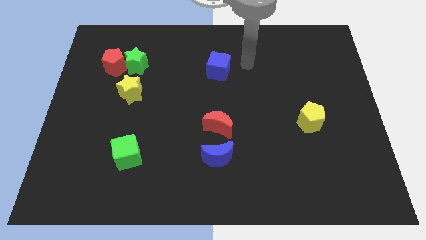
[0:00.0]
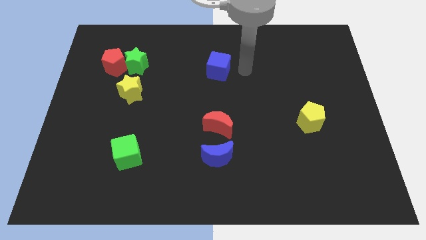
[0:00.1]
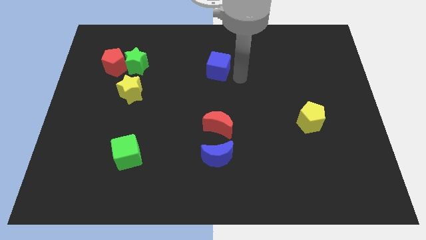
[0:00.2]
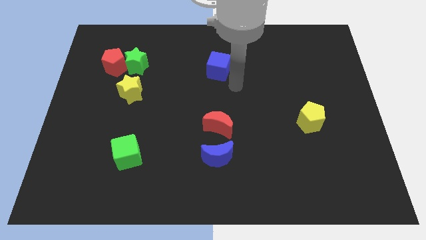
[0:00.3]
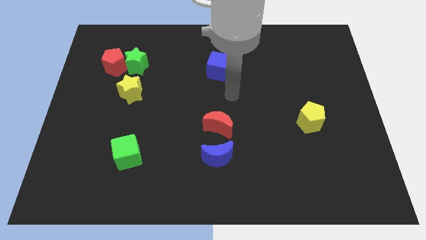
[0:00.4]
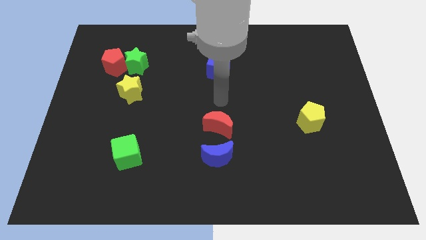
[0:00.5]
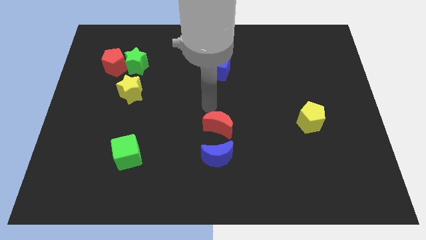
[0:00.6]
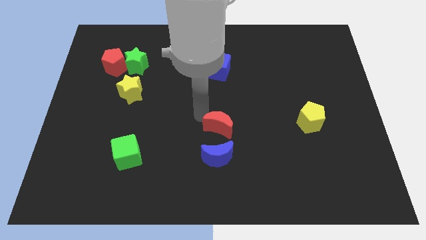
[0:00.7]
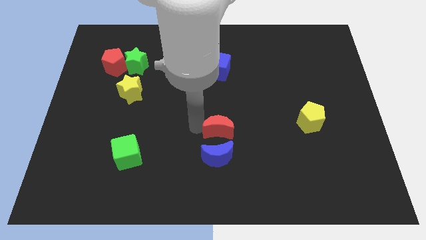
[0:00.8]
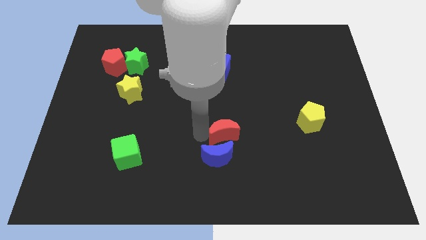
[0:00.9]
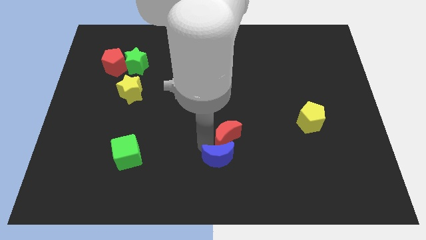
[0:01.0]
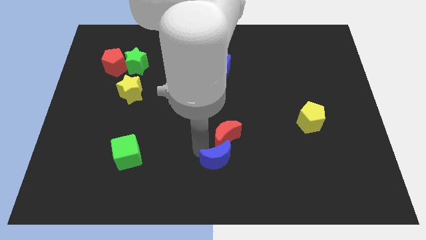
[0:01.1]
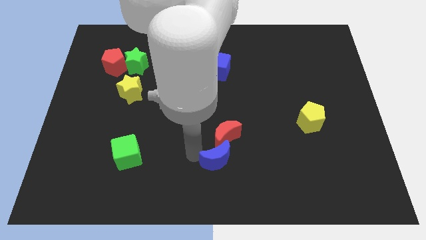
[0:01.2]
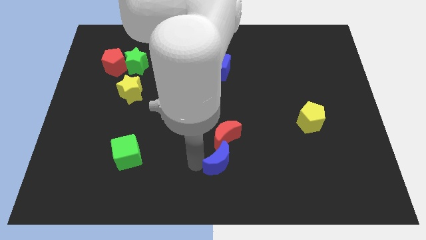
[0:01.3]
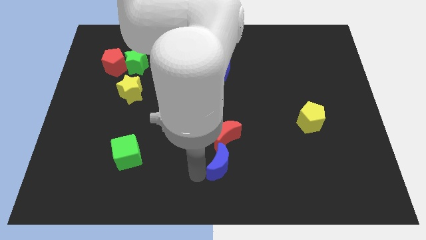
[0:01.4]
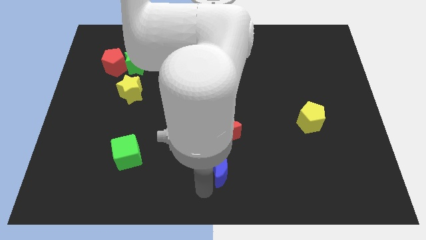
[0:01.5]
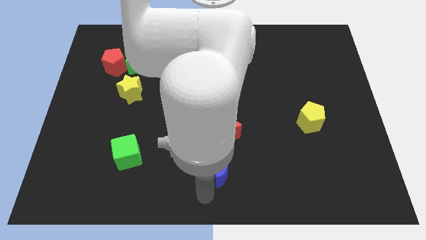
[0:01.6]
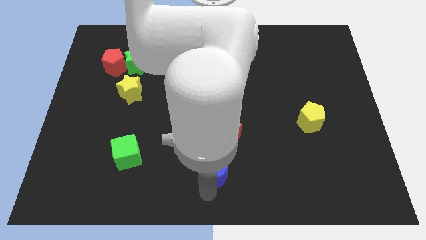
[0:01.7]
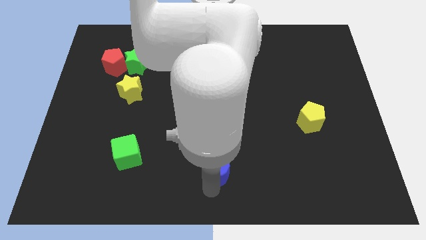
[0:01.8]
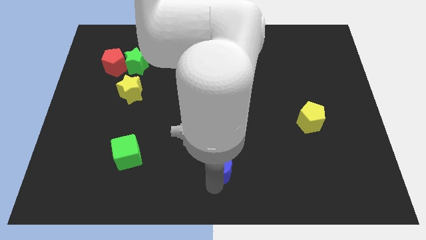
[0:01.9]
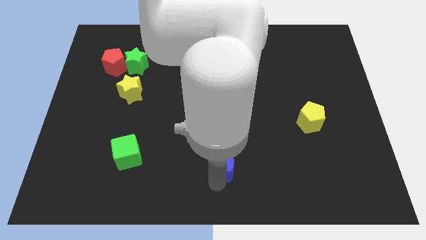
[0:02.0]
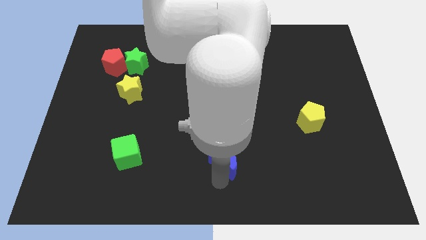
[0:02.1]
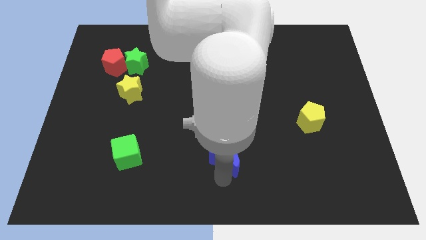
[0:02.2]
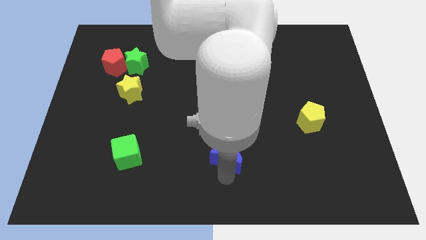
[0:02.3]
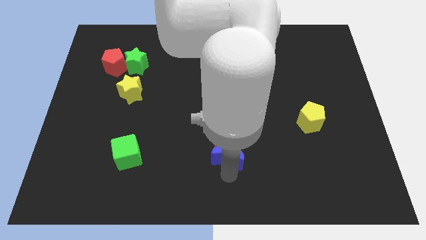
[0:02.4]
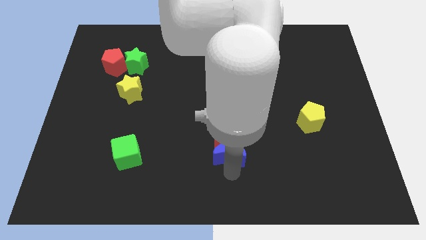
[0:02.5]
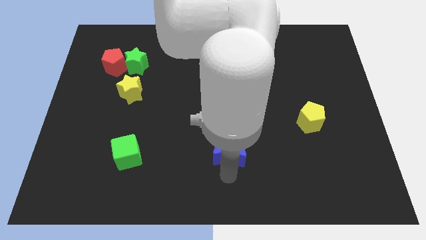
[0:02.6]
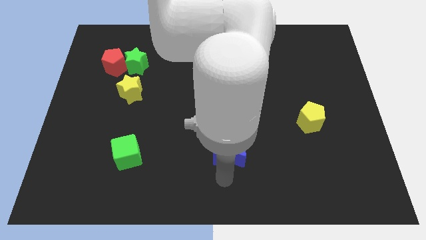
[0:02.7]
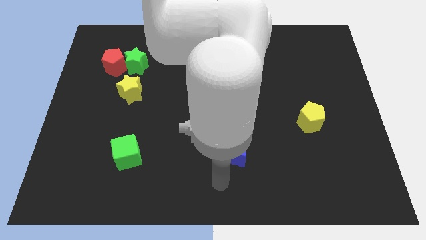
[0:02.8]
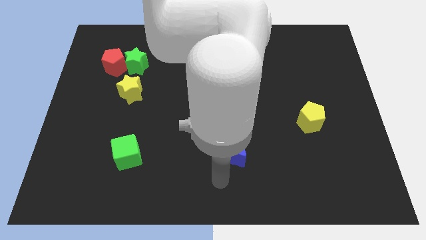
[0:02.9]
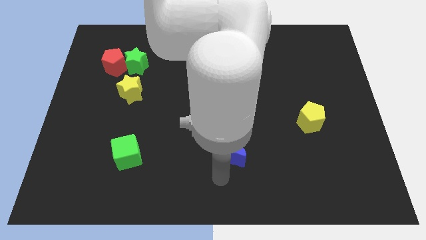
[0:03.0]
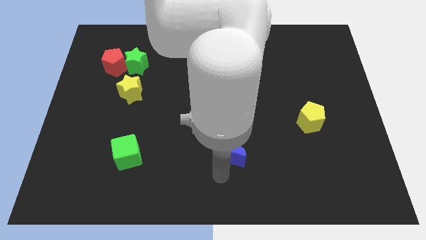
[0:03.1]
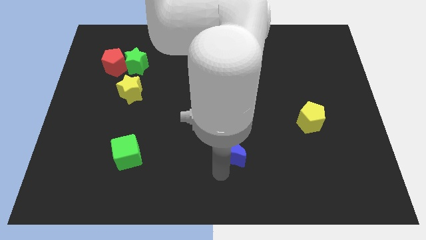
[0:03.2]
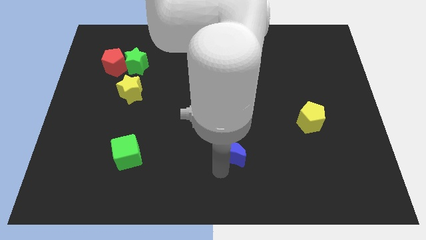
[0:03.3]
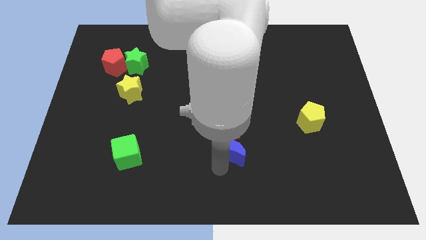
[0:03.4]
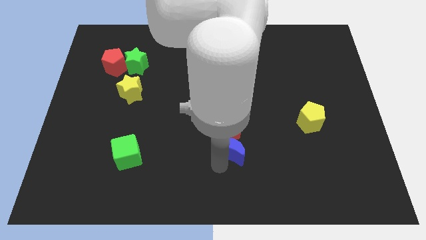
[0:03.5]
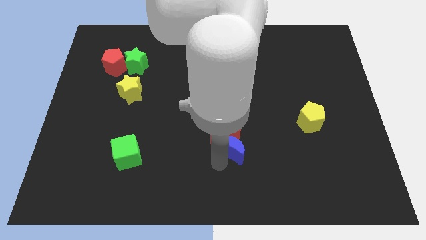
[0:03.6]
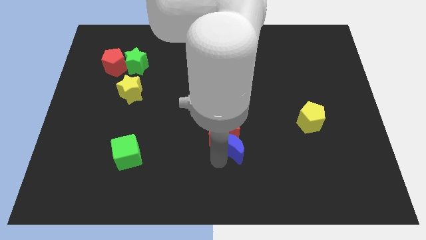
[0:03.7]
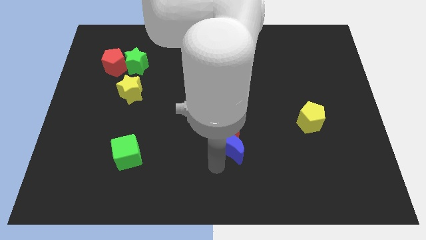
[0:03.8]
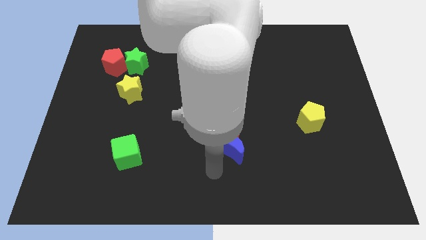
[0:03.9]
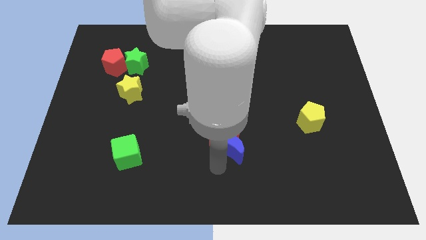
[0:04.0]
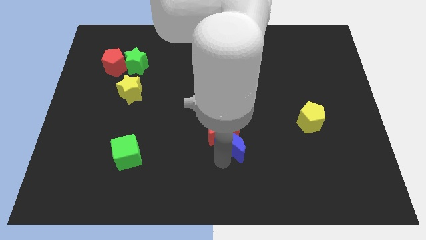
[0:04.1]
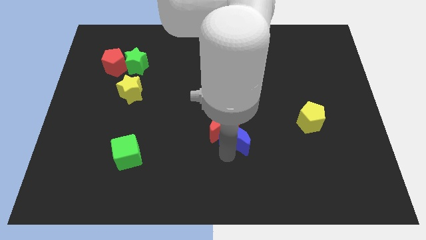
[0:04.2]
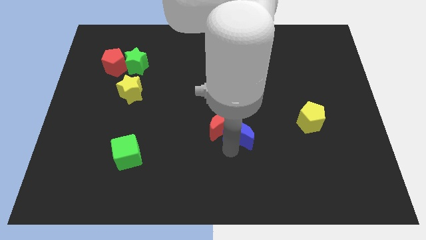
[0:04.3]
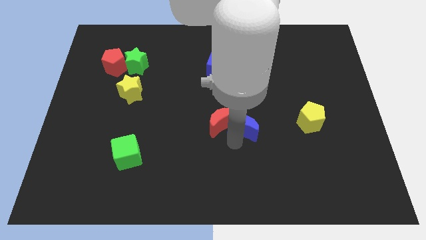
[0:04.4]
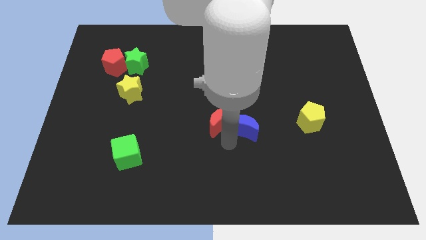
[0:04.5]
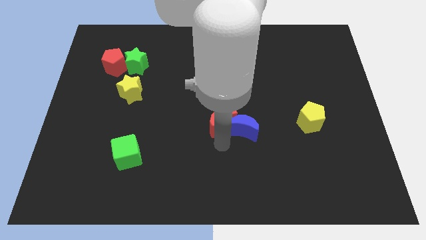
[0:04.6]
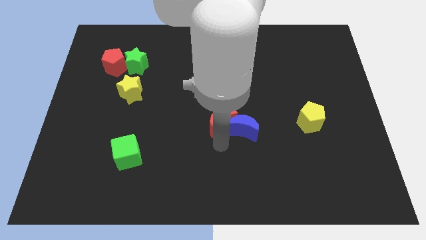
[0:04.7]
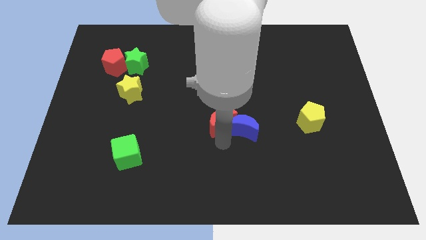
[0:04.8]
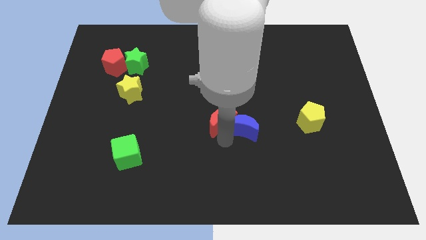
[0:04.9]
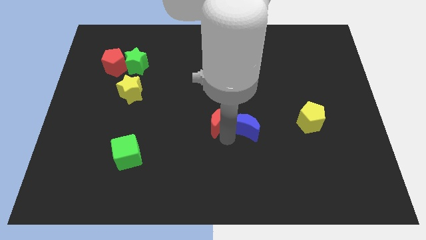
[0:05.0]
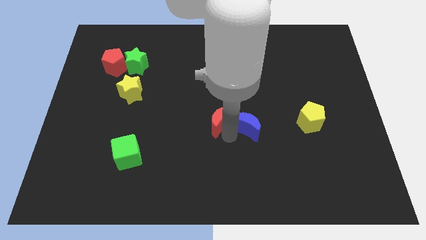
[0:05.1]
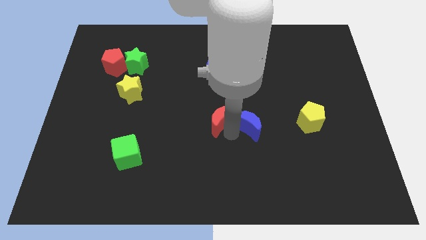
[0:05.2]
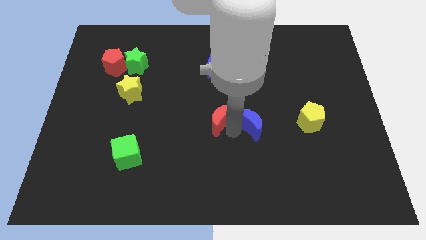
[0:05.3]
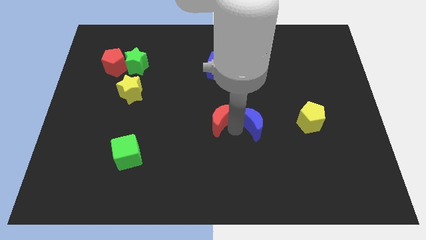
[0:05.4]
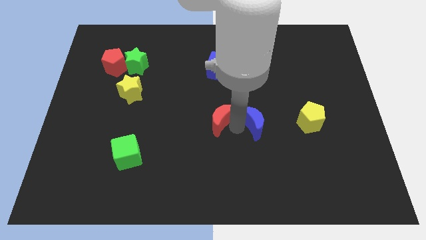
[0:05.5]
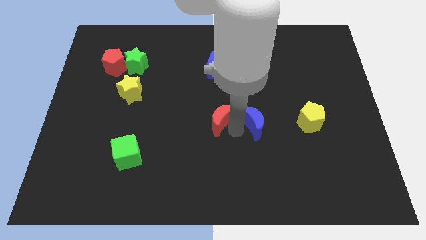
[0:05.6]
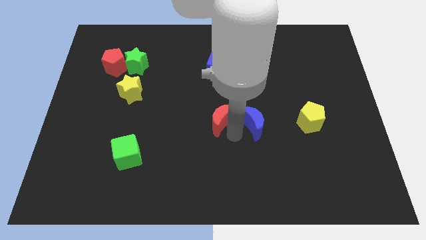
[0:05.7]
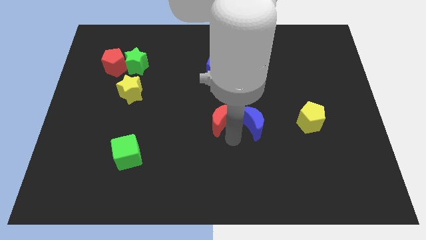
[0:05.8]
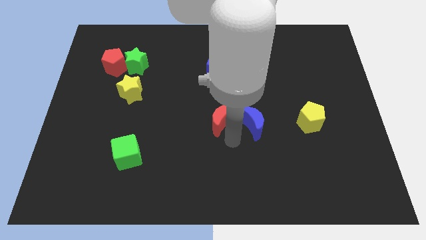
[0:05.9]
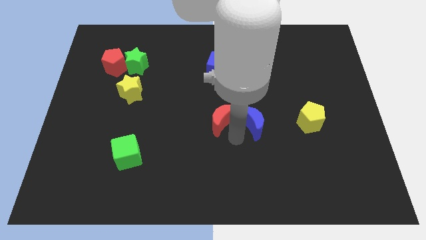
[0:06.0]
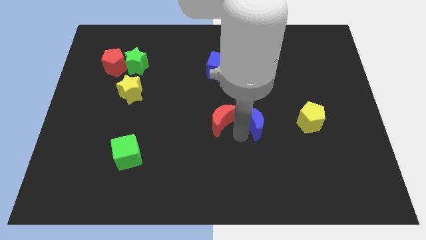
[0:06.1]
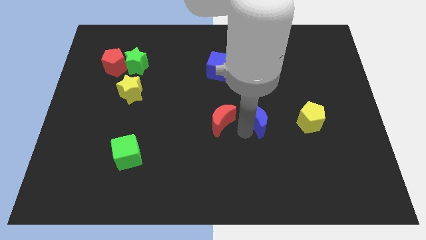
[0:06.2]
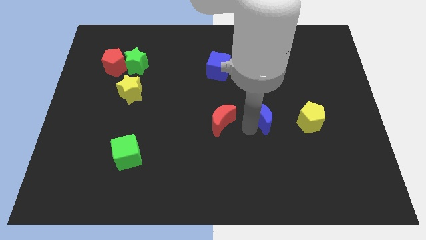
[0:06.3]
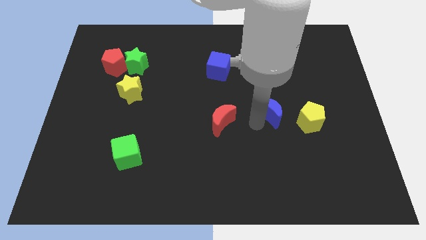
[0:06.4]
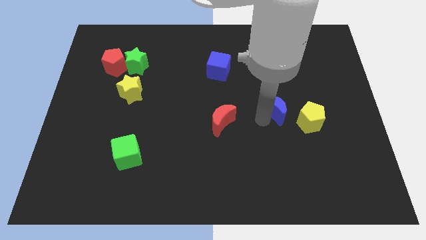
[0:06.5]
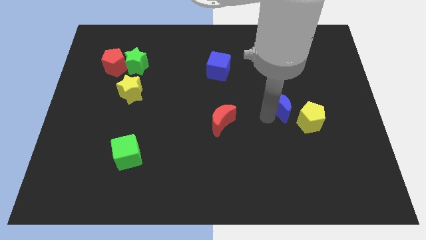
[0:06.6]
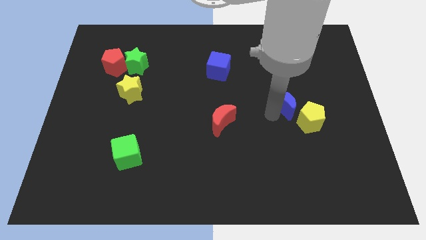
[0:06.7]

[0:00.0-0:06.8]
move the blue moon upwards and to the right

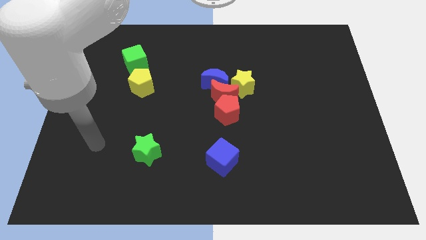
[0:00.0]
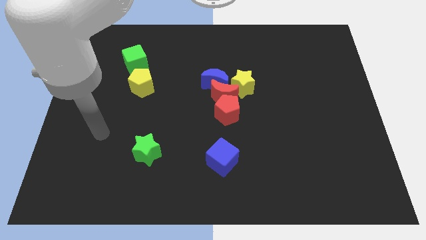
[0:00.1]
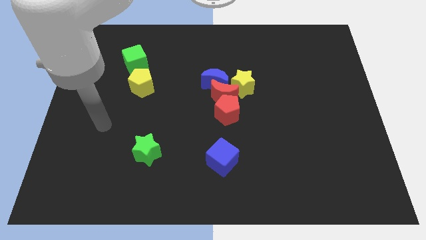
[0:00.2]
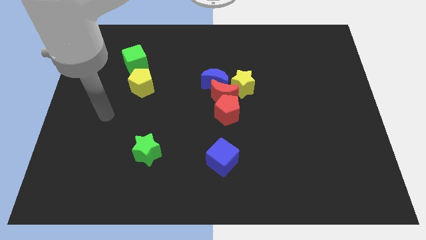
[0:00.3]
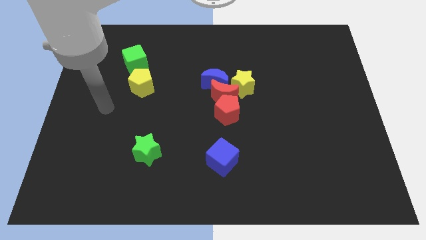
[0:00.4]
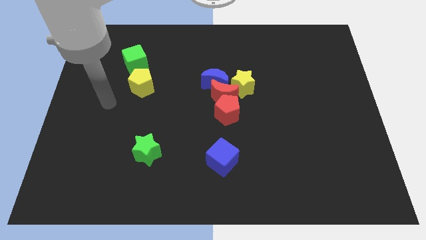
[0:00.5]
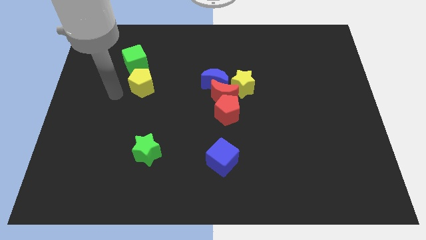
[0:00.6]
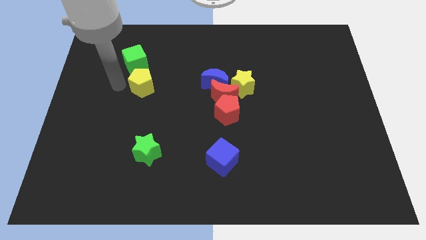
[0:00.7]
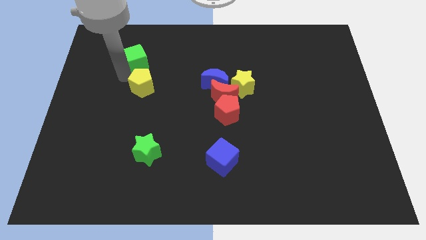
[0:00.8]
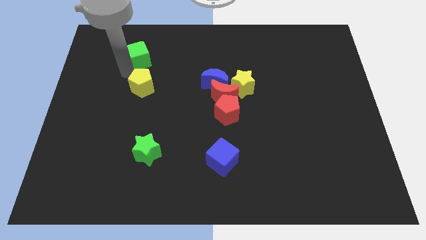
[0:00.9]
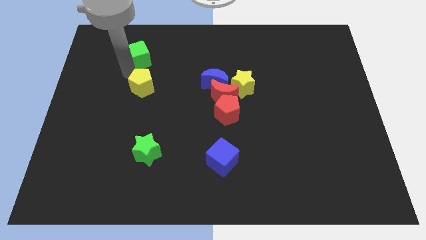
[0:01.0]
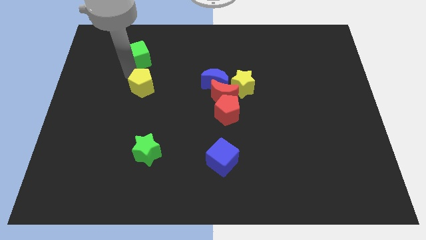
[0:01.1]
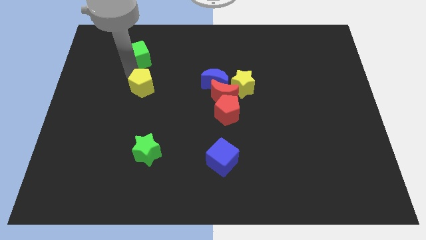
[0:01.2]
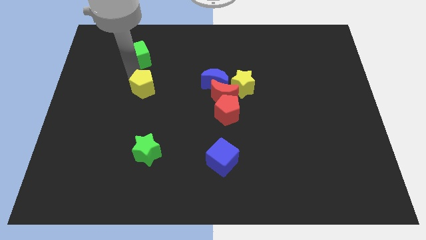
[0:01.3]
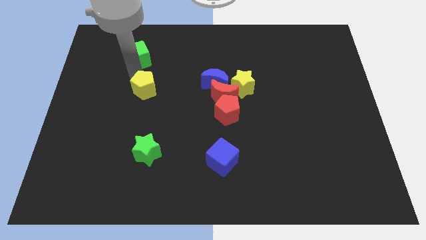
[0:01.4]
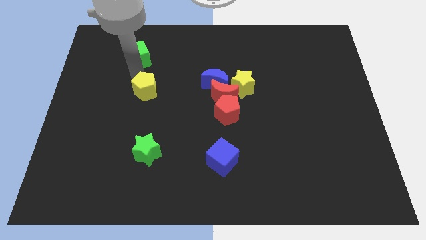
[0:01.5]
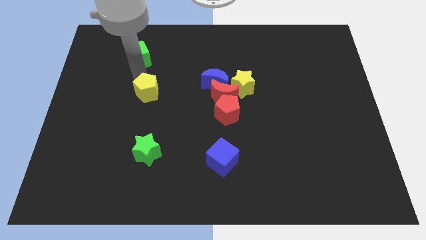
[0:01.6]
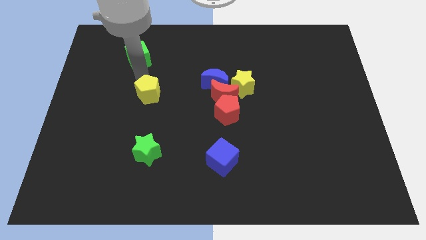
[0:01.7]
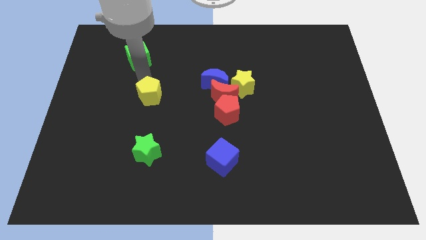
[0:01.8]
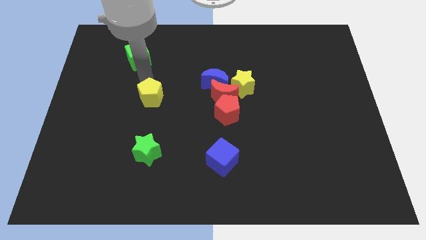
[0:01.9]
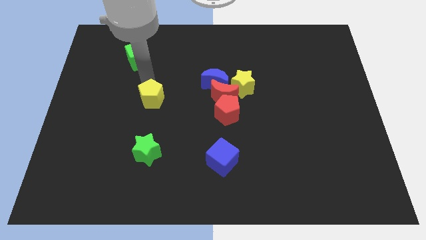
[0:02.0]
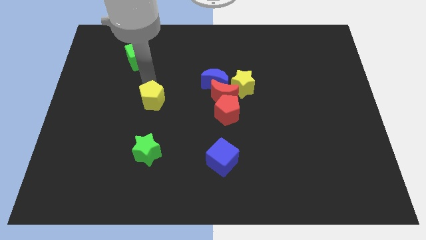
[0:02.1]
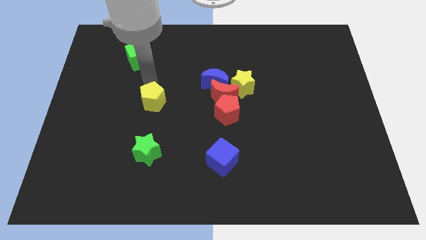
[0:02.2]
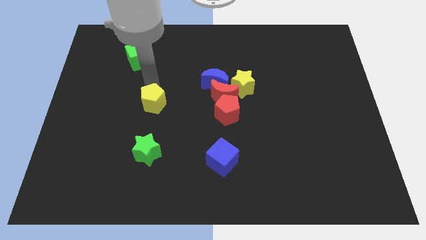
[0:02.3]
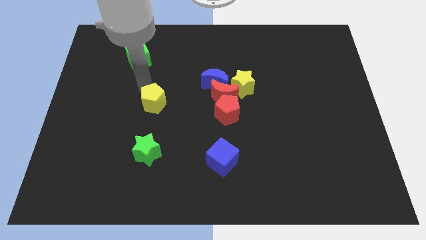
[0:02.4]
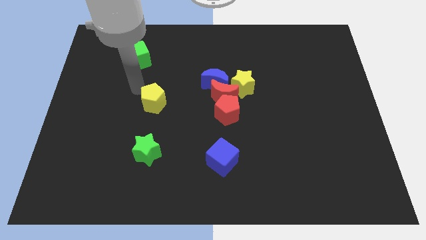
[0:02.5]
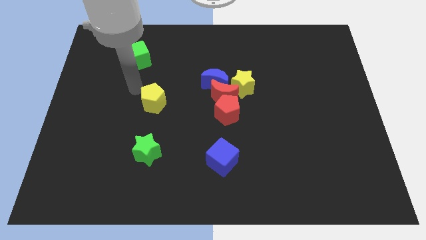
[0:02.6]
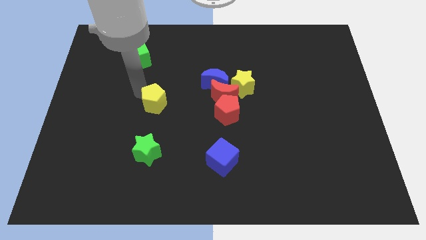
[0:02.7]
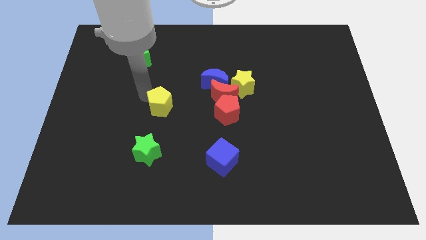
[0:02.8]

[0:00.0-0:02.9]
slightly push the yellow pentagon downwards and then right
